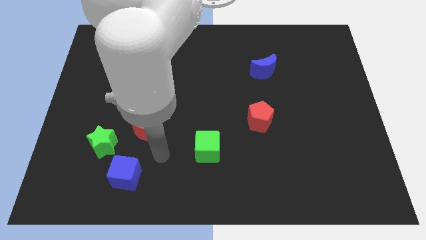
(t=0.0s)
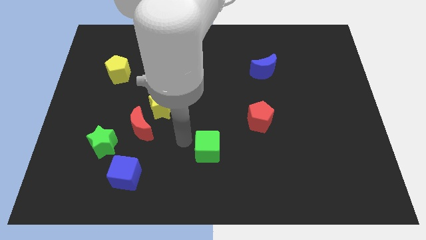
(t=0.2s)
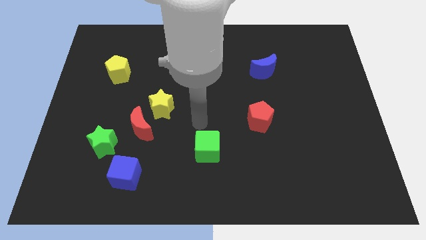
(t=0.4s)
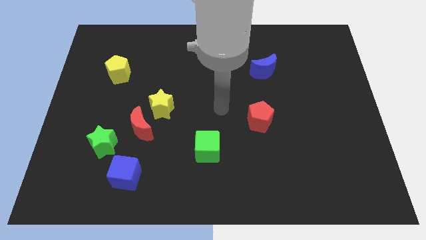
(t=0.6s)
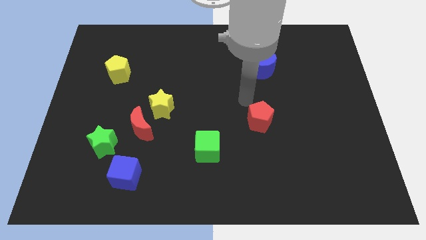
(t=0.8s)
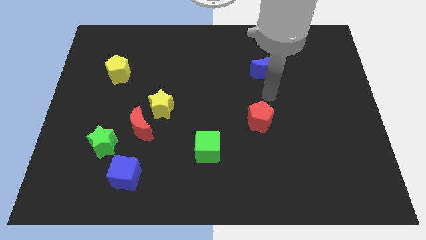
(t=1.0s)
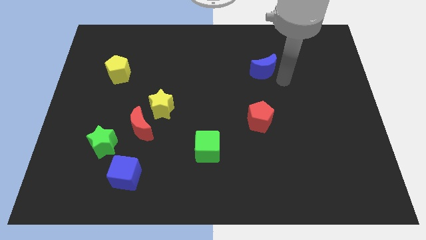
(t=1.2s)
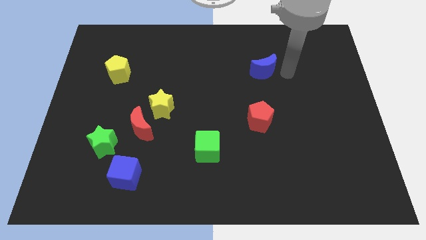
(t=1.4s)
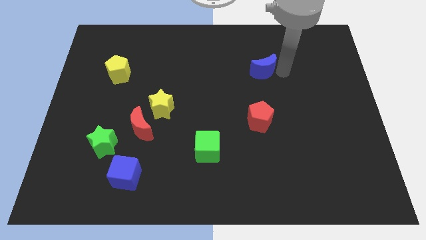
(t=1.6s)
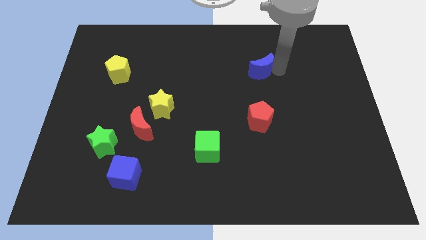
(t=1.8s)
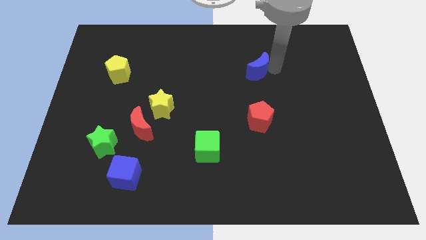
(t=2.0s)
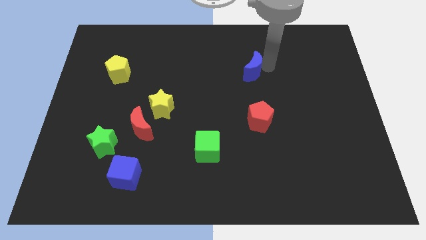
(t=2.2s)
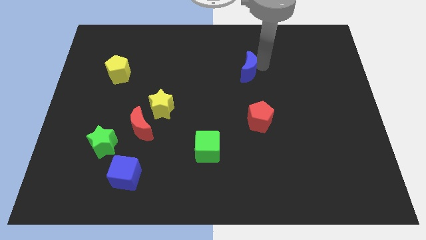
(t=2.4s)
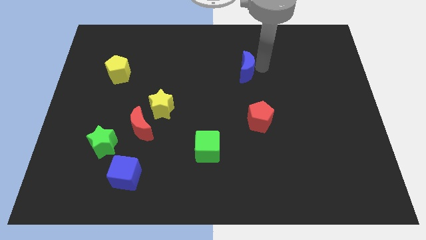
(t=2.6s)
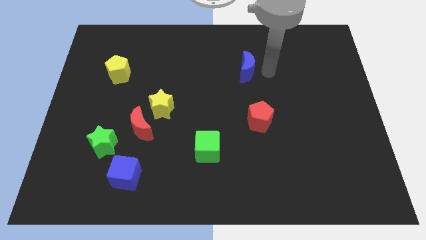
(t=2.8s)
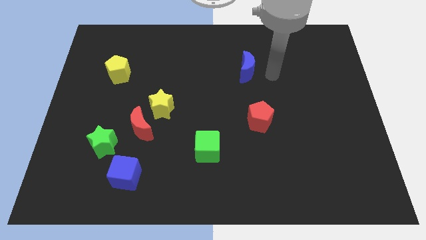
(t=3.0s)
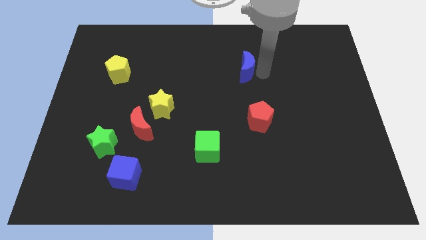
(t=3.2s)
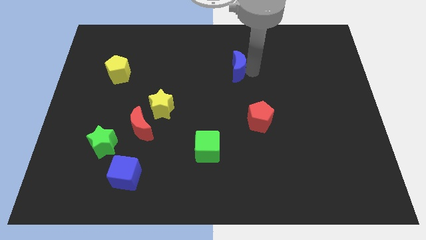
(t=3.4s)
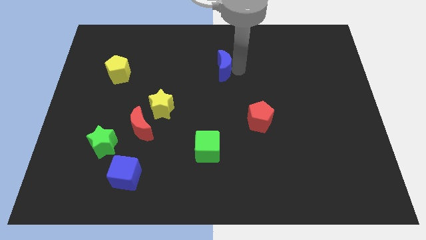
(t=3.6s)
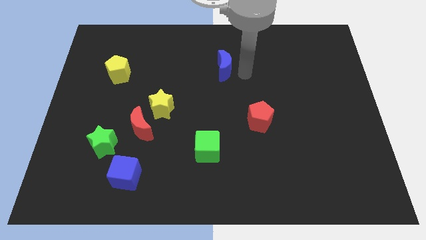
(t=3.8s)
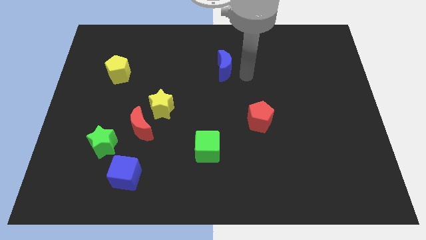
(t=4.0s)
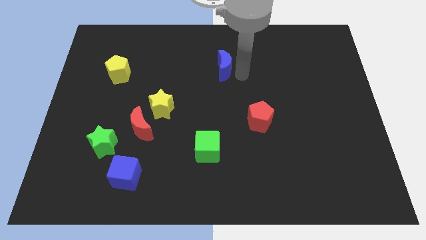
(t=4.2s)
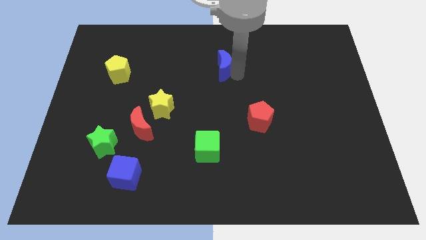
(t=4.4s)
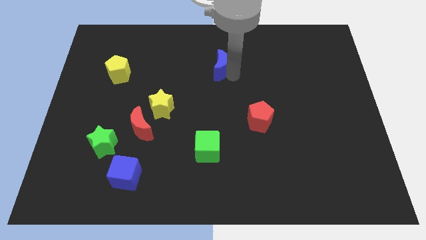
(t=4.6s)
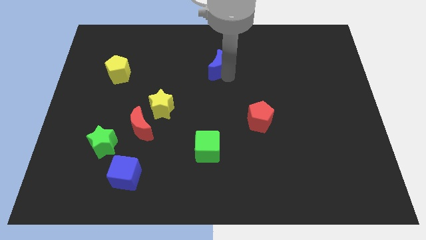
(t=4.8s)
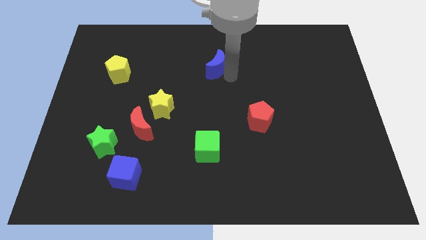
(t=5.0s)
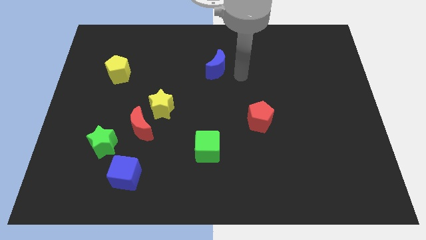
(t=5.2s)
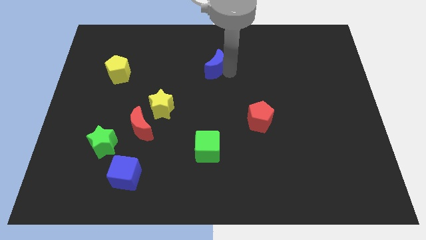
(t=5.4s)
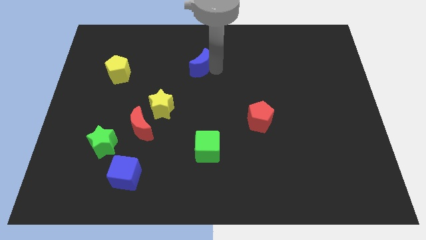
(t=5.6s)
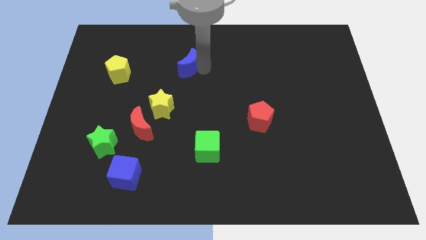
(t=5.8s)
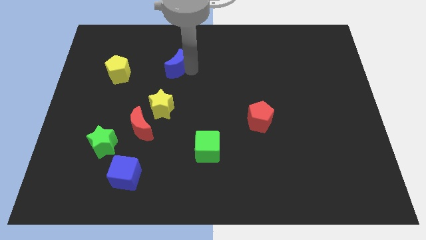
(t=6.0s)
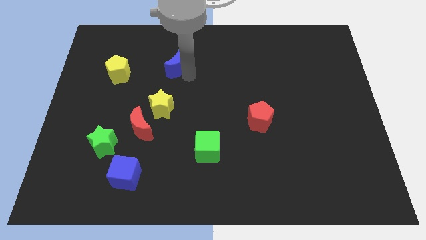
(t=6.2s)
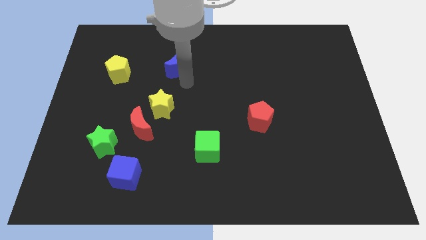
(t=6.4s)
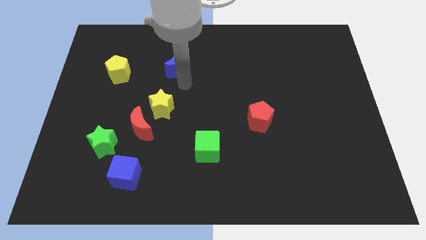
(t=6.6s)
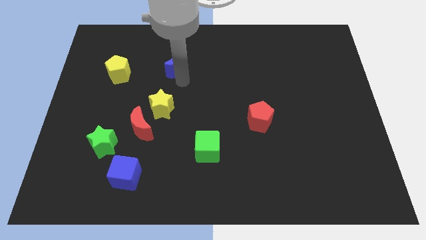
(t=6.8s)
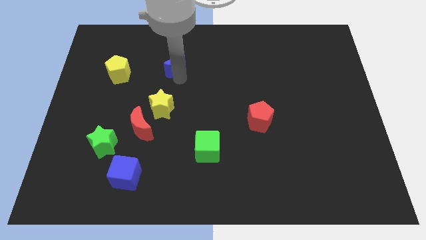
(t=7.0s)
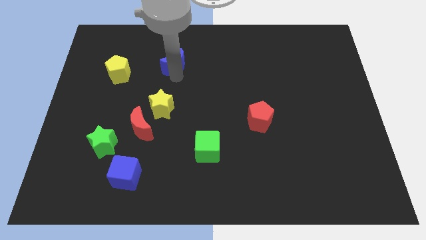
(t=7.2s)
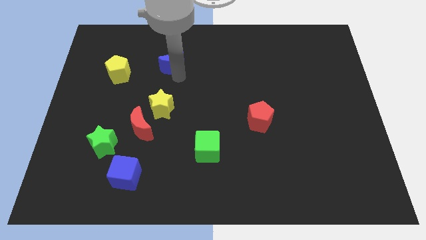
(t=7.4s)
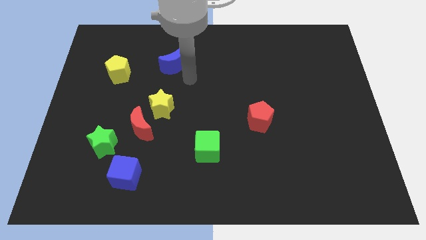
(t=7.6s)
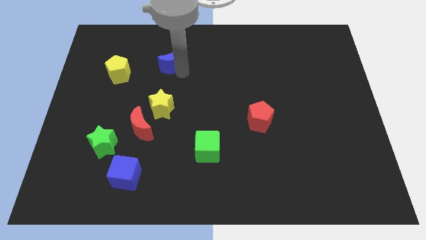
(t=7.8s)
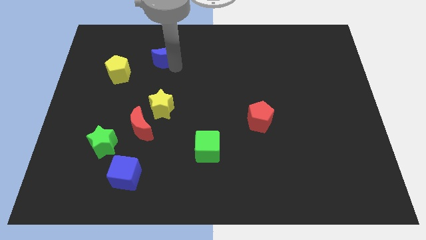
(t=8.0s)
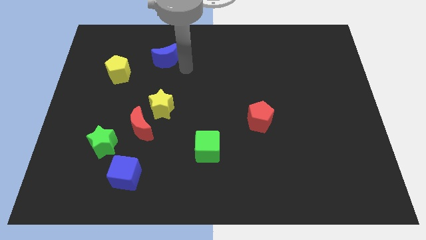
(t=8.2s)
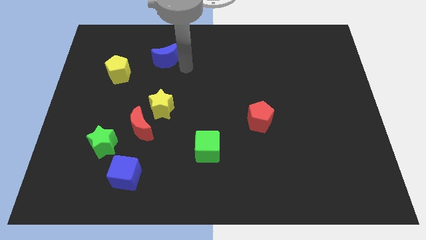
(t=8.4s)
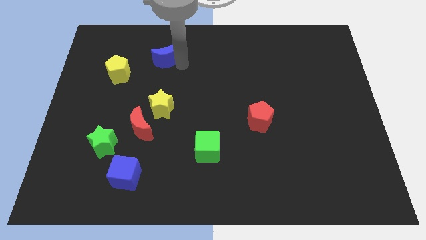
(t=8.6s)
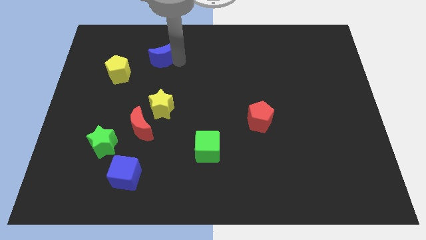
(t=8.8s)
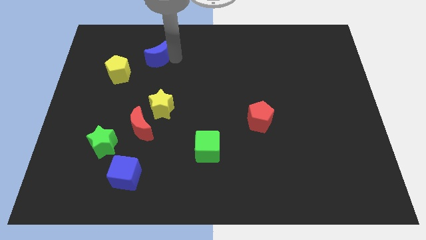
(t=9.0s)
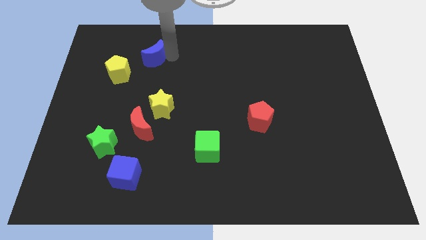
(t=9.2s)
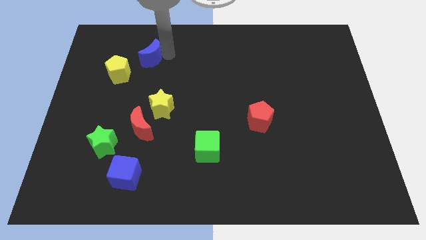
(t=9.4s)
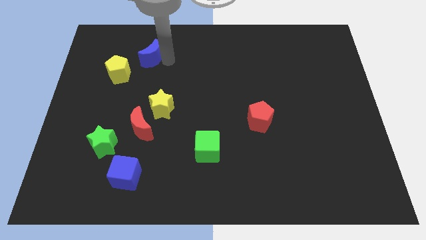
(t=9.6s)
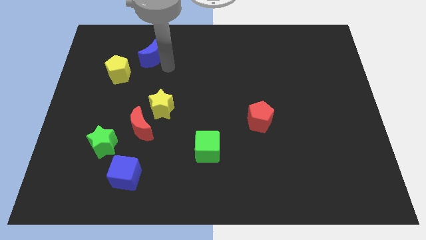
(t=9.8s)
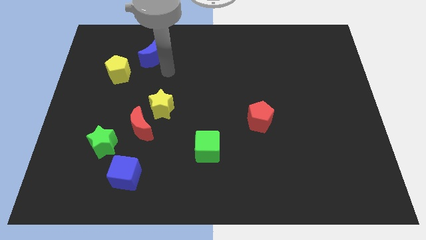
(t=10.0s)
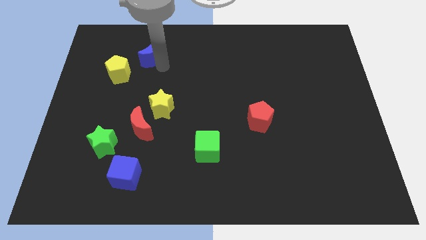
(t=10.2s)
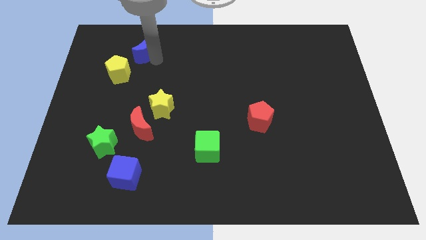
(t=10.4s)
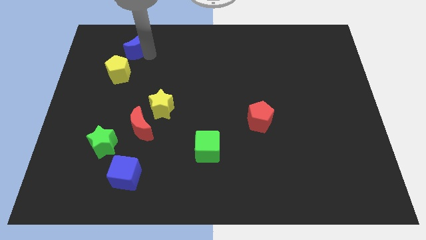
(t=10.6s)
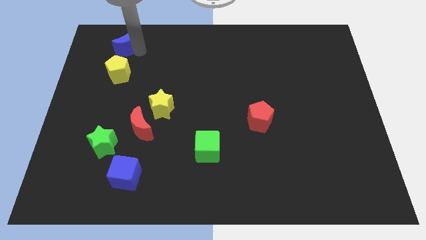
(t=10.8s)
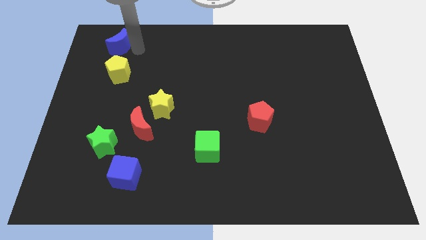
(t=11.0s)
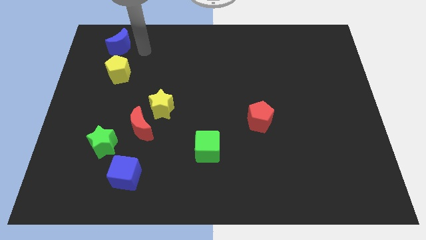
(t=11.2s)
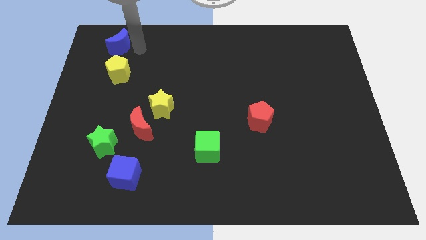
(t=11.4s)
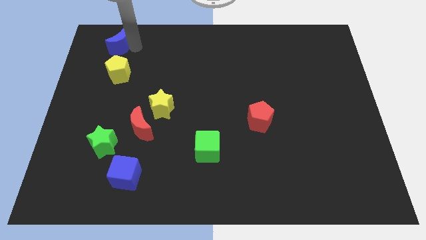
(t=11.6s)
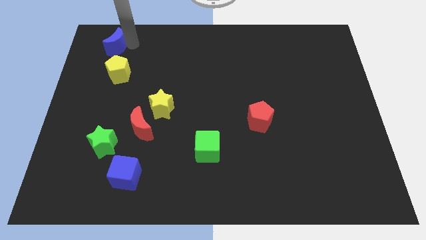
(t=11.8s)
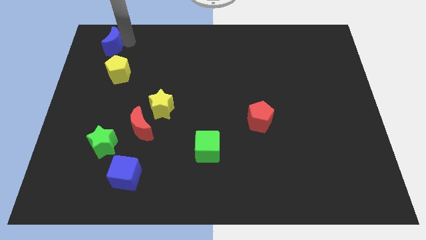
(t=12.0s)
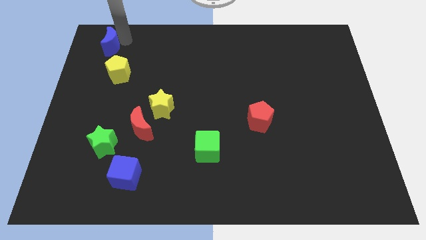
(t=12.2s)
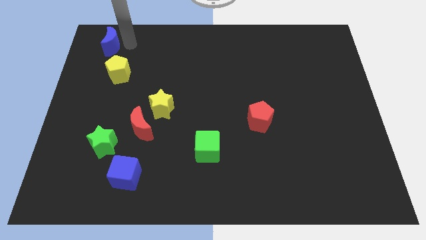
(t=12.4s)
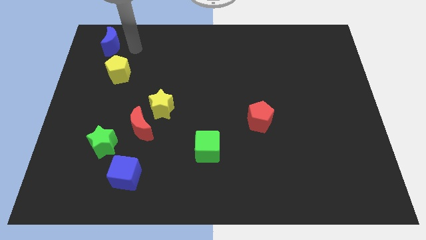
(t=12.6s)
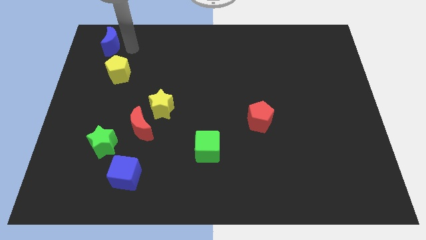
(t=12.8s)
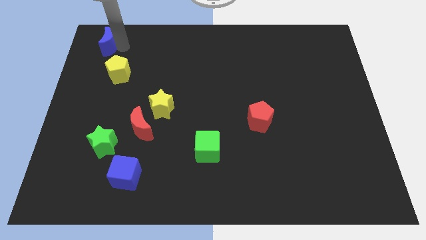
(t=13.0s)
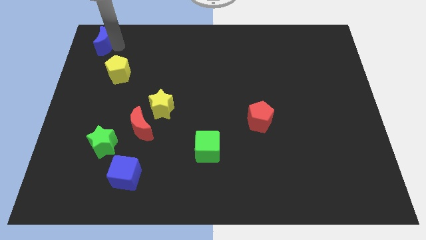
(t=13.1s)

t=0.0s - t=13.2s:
move the blue moon to the top left of the board

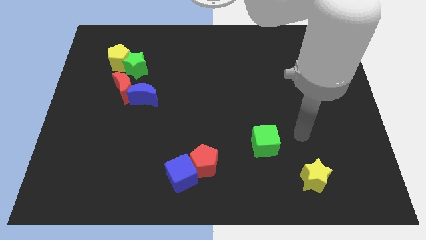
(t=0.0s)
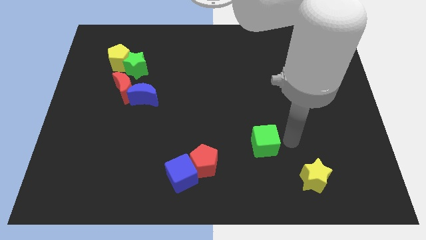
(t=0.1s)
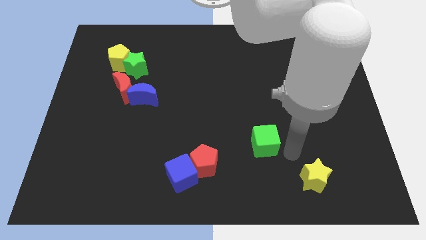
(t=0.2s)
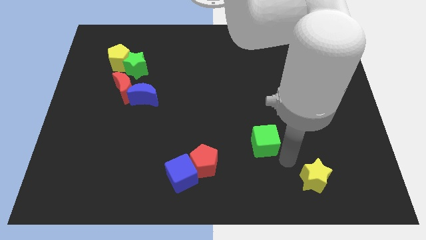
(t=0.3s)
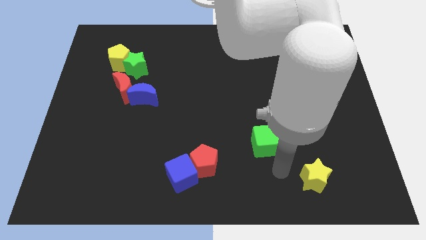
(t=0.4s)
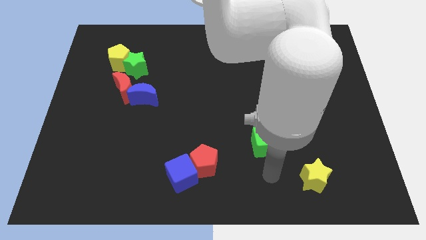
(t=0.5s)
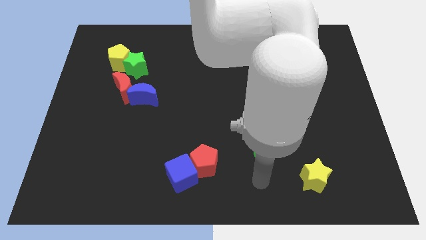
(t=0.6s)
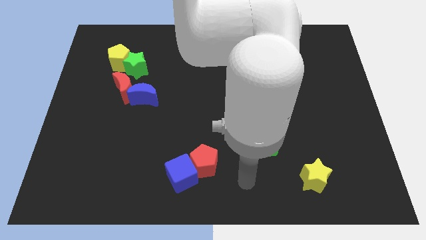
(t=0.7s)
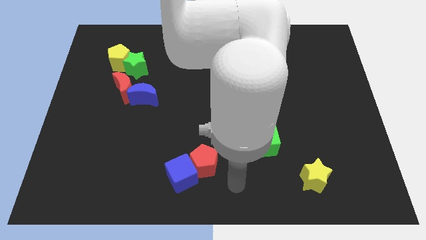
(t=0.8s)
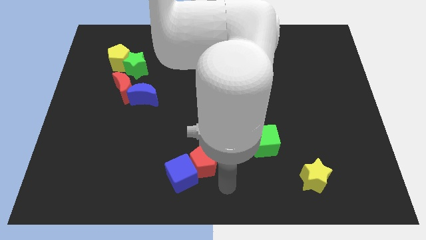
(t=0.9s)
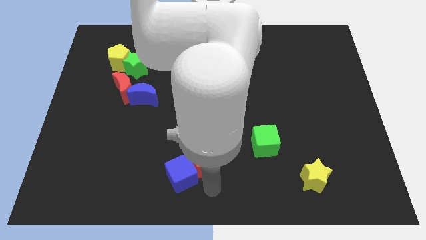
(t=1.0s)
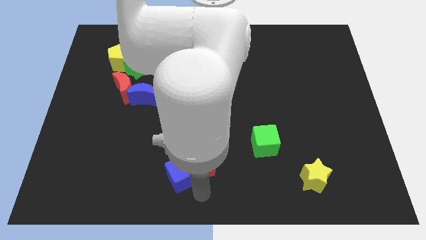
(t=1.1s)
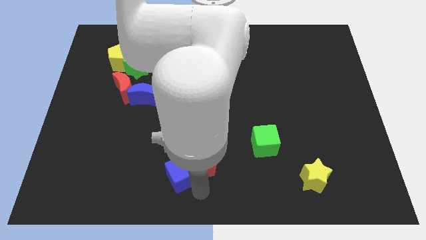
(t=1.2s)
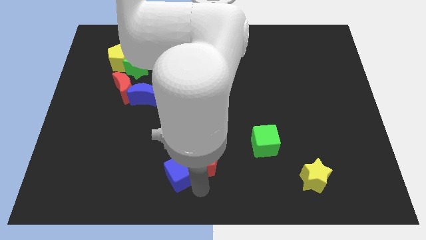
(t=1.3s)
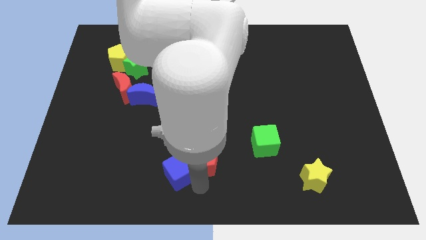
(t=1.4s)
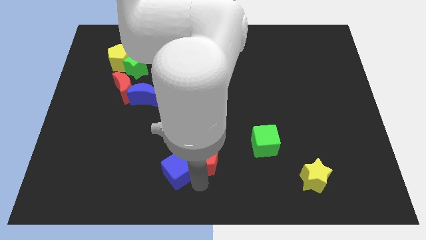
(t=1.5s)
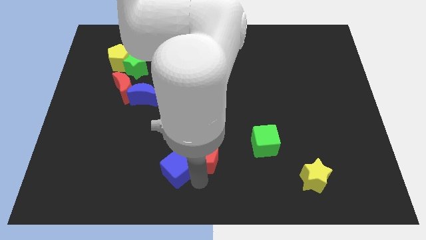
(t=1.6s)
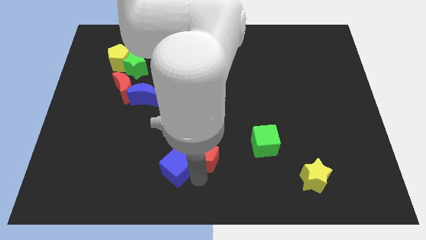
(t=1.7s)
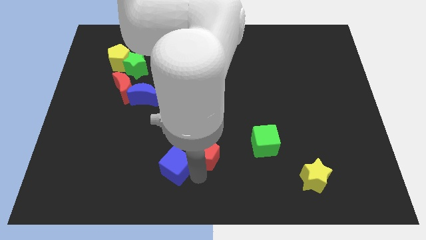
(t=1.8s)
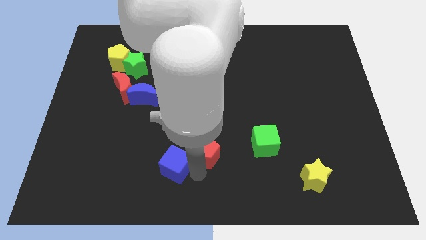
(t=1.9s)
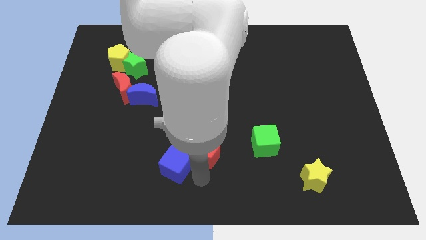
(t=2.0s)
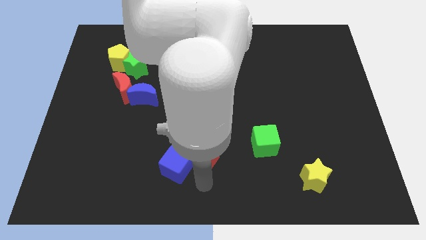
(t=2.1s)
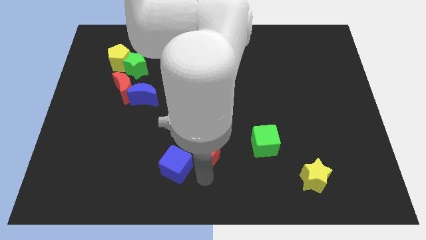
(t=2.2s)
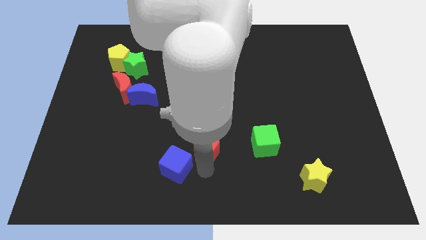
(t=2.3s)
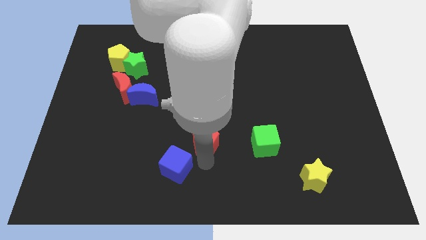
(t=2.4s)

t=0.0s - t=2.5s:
move the red pentagon to the center of the board
